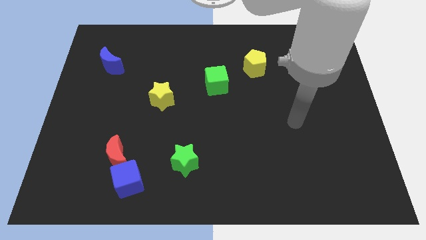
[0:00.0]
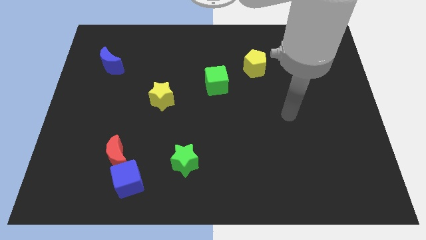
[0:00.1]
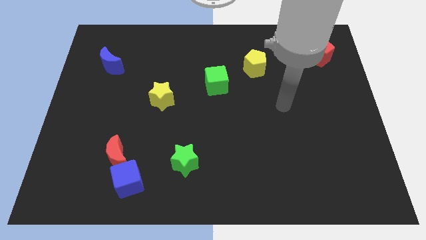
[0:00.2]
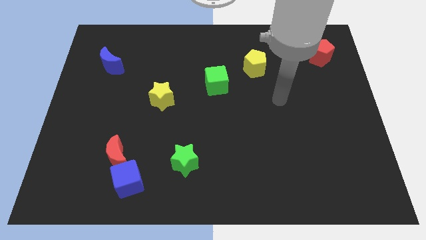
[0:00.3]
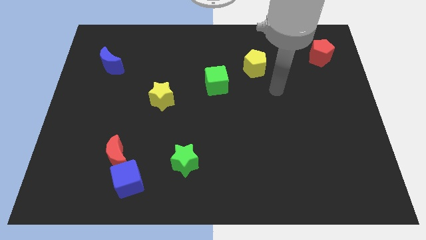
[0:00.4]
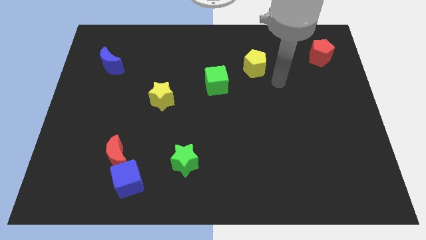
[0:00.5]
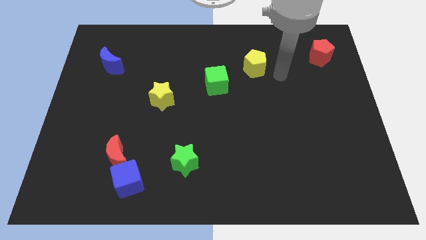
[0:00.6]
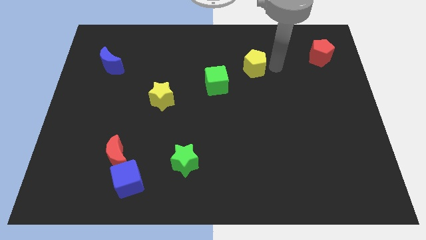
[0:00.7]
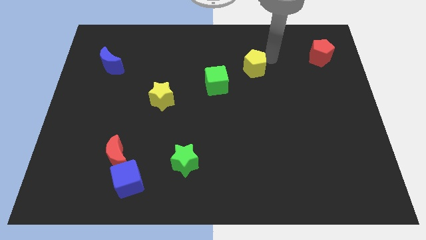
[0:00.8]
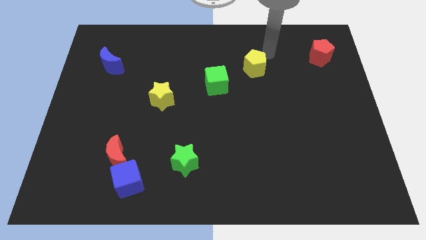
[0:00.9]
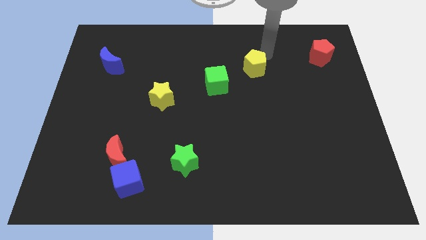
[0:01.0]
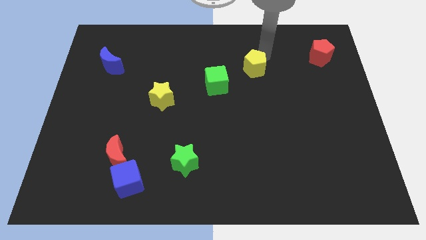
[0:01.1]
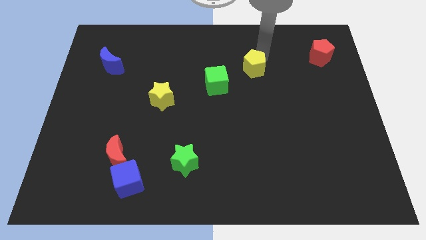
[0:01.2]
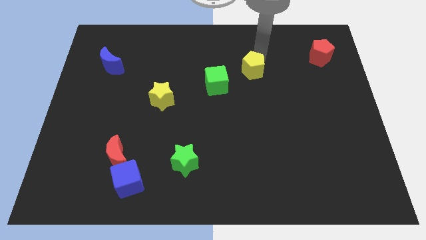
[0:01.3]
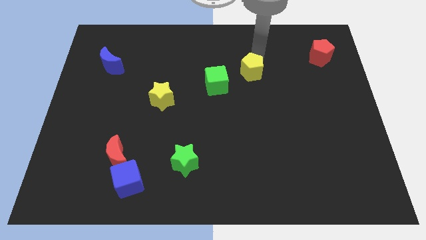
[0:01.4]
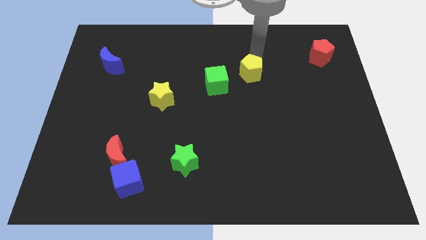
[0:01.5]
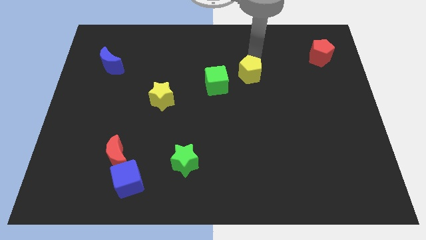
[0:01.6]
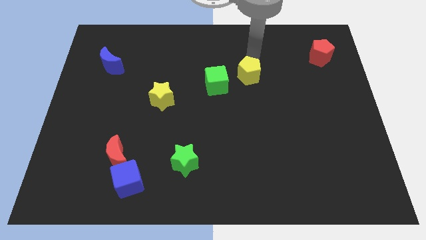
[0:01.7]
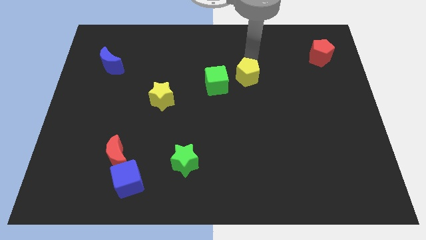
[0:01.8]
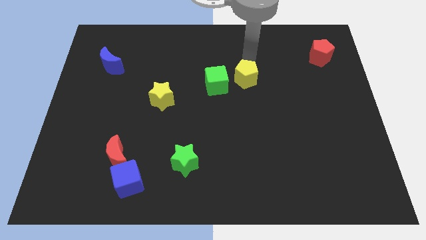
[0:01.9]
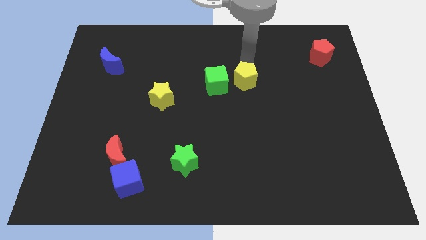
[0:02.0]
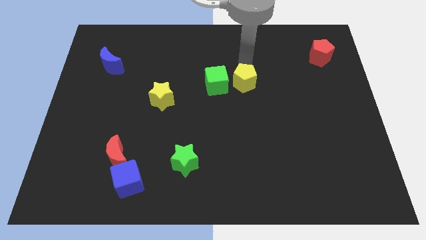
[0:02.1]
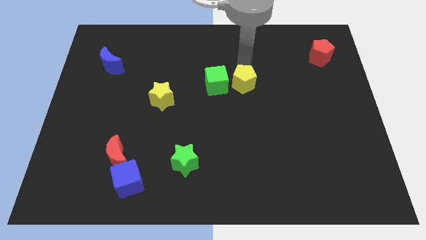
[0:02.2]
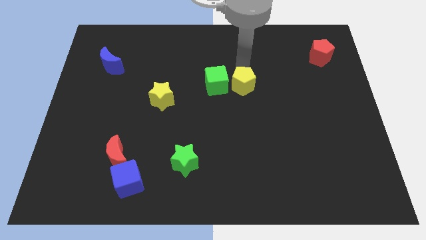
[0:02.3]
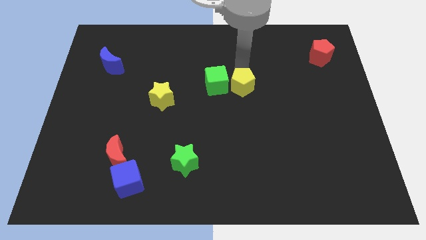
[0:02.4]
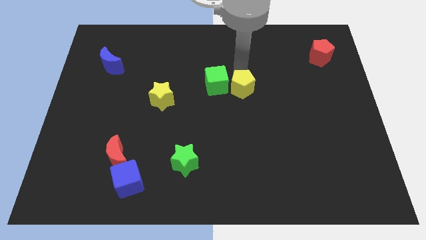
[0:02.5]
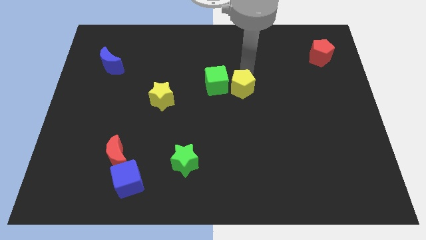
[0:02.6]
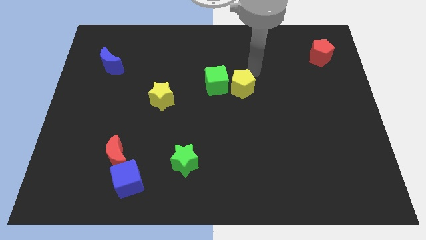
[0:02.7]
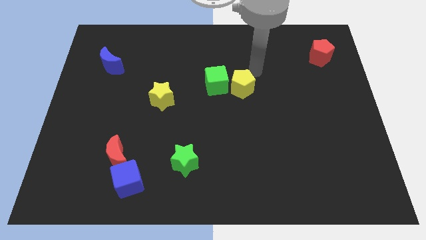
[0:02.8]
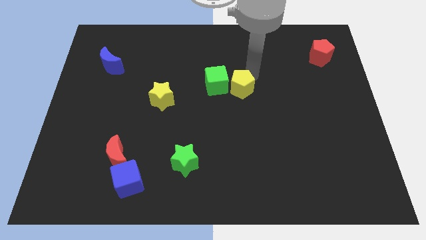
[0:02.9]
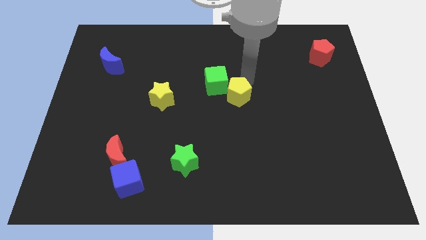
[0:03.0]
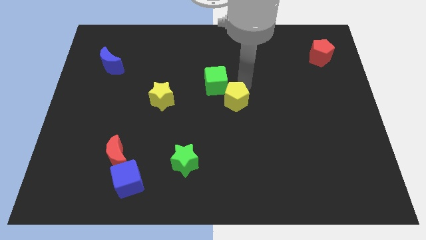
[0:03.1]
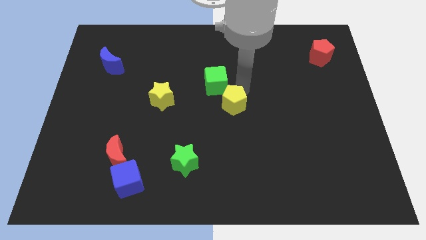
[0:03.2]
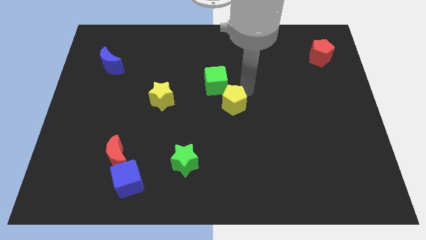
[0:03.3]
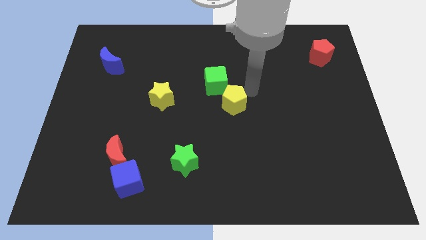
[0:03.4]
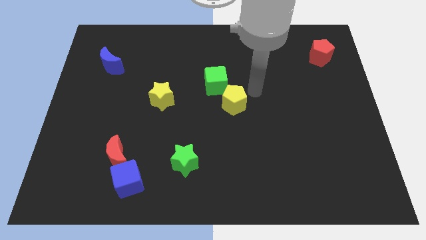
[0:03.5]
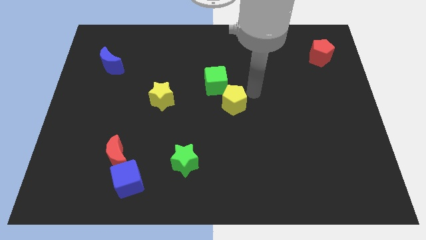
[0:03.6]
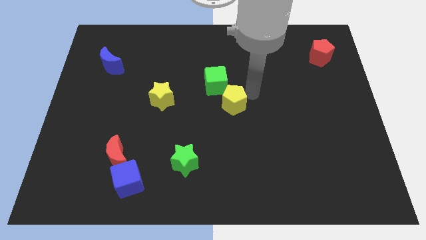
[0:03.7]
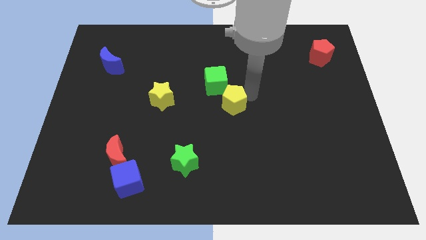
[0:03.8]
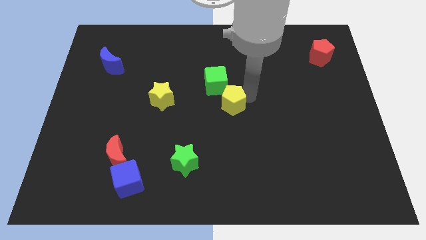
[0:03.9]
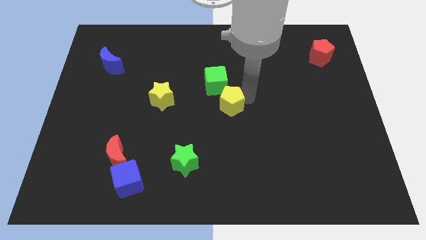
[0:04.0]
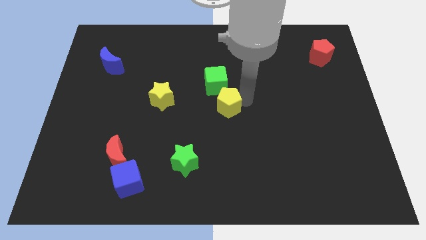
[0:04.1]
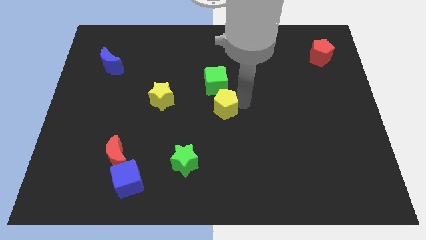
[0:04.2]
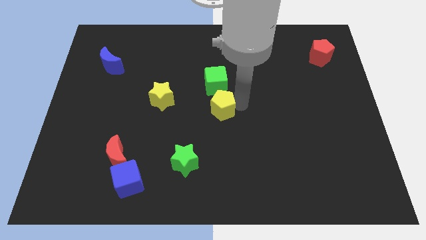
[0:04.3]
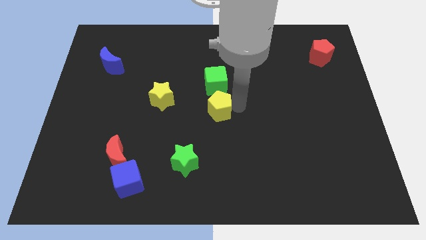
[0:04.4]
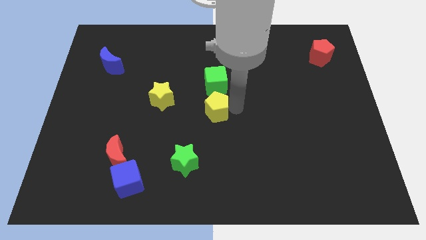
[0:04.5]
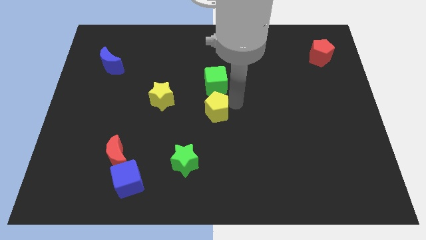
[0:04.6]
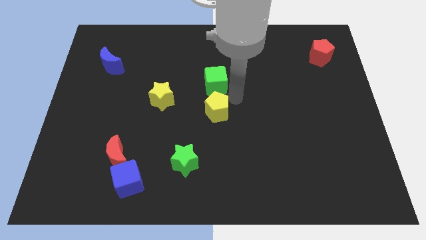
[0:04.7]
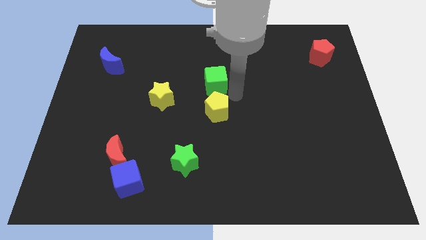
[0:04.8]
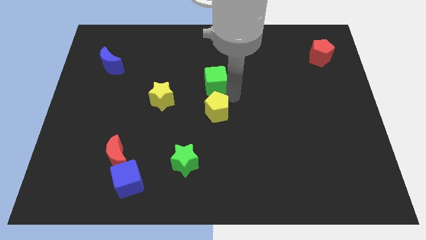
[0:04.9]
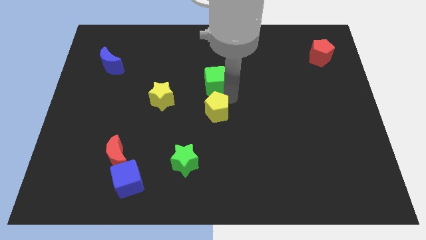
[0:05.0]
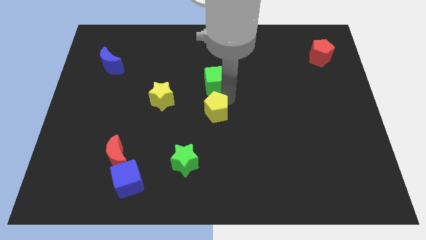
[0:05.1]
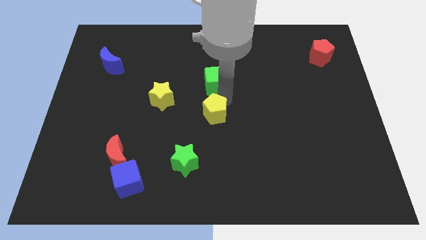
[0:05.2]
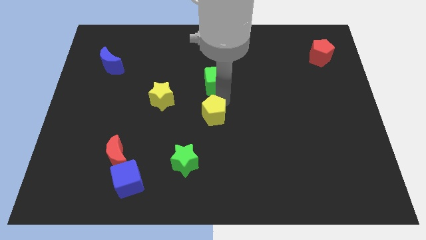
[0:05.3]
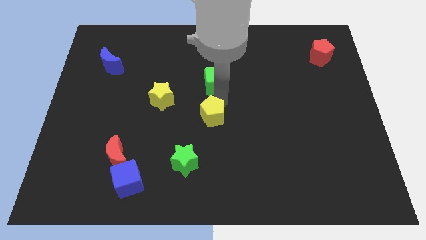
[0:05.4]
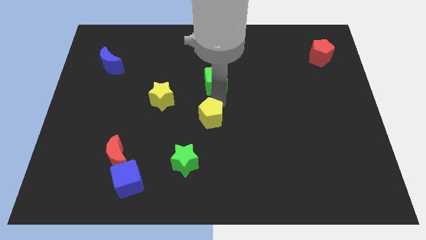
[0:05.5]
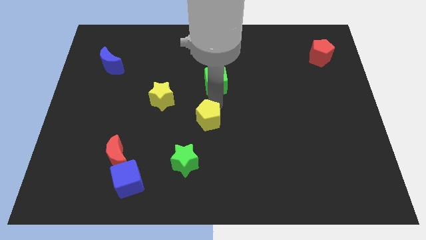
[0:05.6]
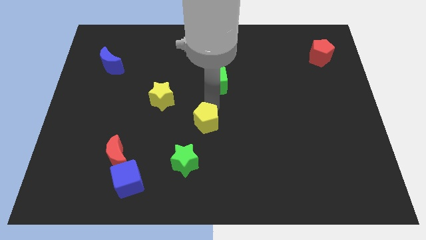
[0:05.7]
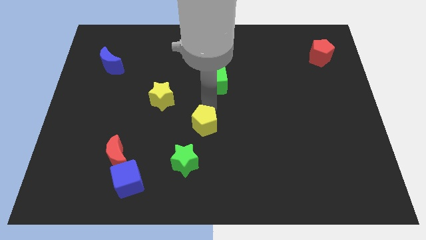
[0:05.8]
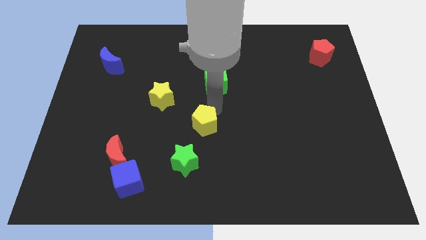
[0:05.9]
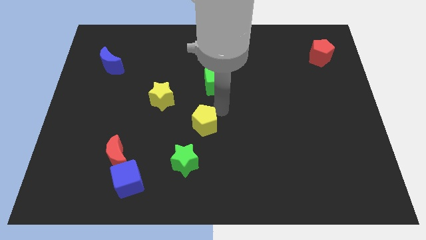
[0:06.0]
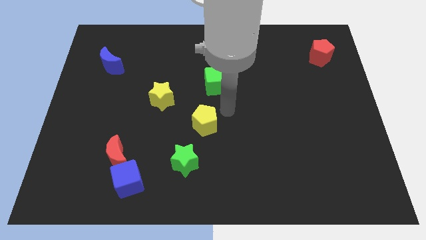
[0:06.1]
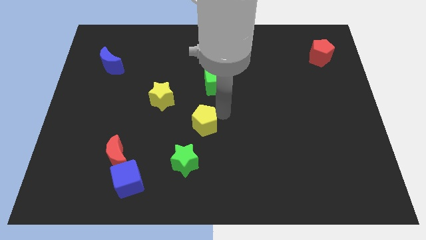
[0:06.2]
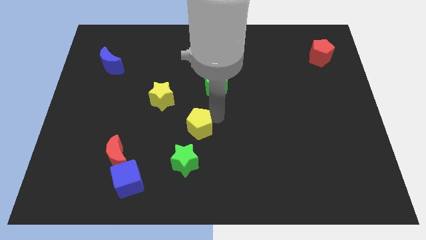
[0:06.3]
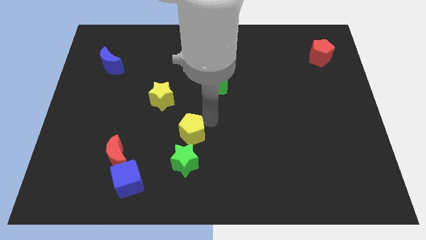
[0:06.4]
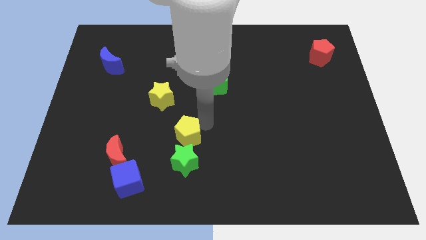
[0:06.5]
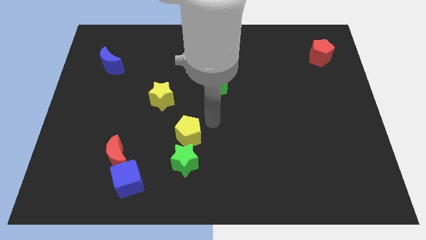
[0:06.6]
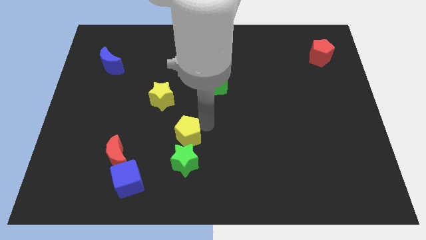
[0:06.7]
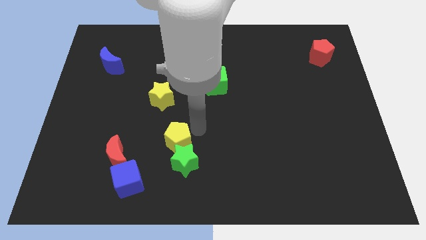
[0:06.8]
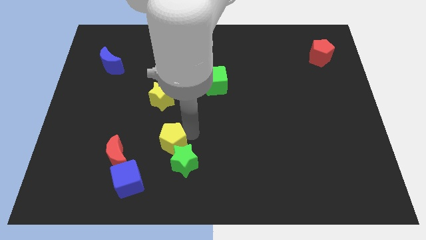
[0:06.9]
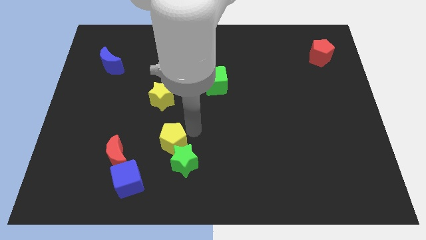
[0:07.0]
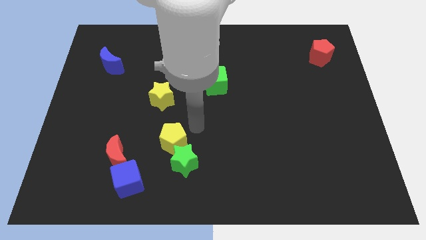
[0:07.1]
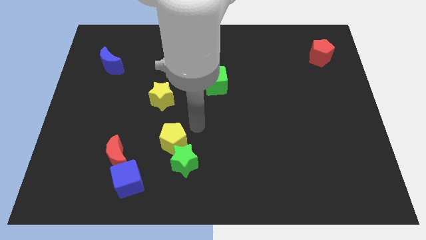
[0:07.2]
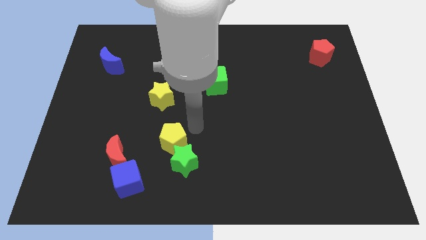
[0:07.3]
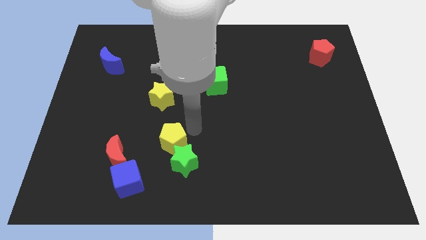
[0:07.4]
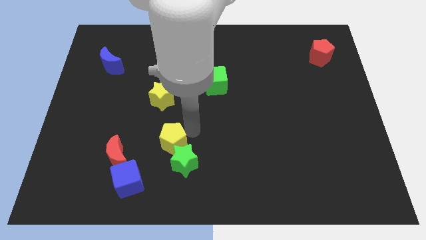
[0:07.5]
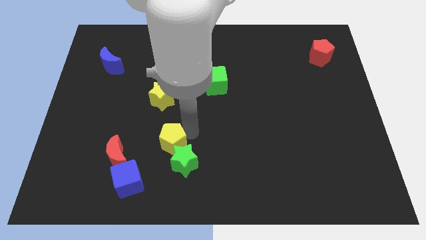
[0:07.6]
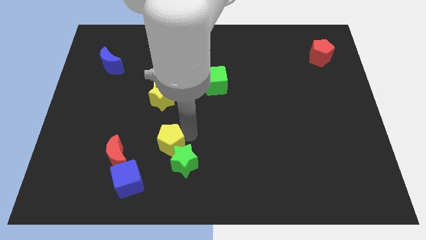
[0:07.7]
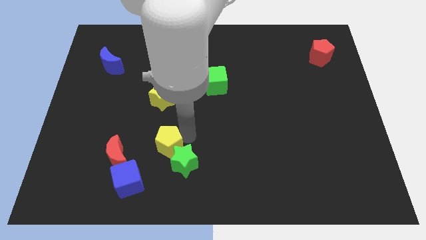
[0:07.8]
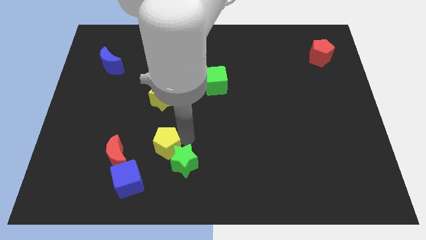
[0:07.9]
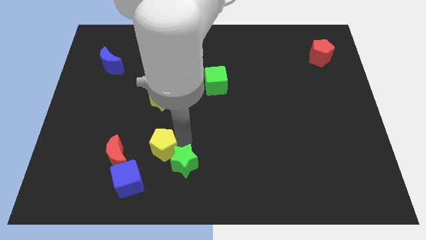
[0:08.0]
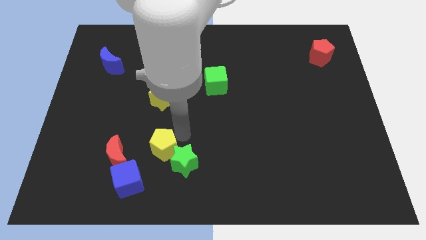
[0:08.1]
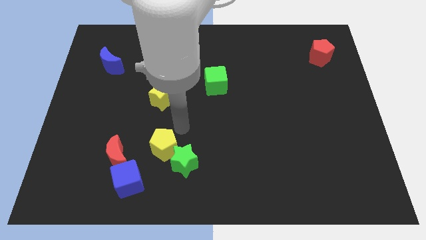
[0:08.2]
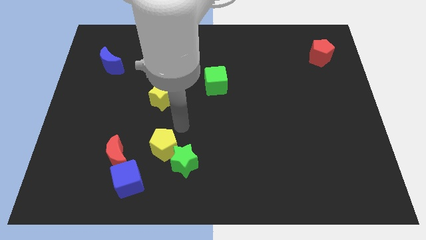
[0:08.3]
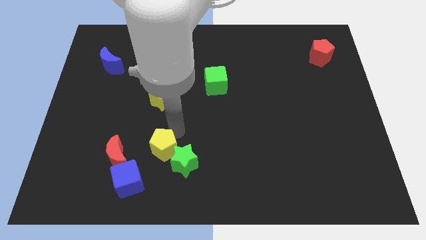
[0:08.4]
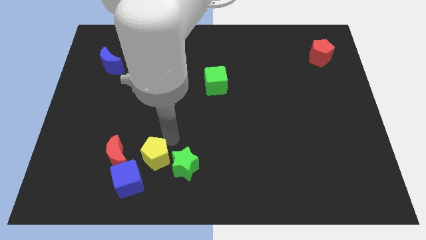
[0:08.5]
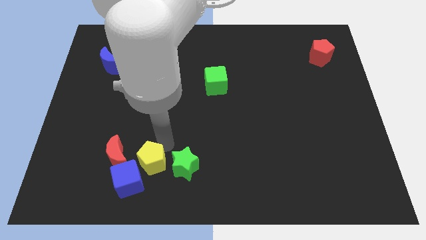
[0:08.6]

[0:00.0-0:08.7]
put the yellow pentagon to the bottom right of the red moon
